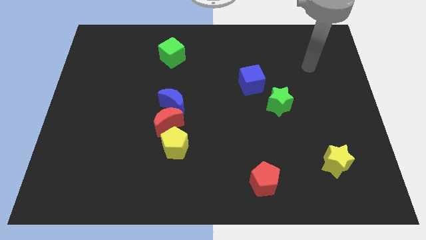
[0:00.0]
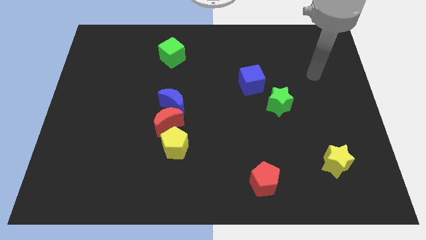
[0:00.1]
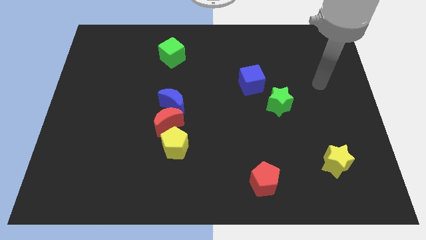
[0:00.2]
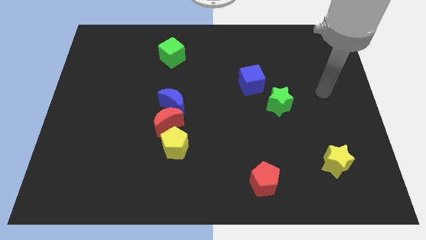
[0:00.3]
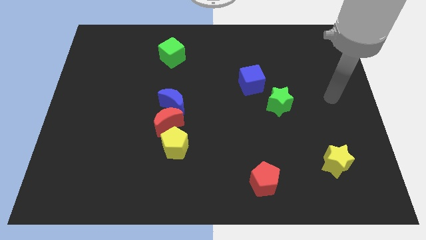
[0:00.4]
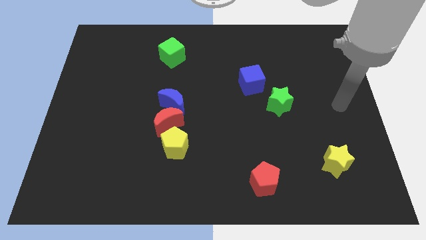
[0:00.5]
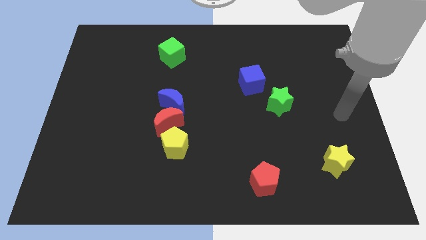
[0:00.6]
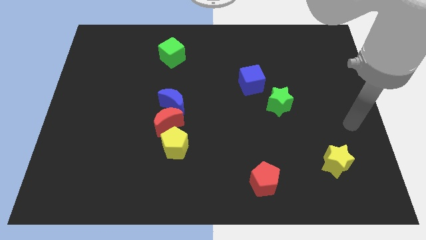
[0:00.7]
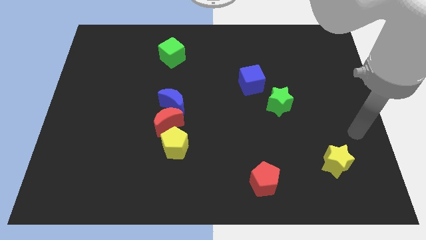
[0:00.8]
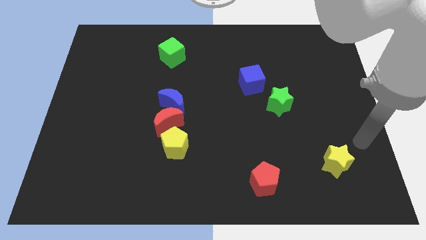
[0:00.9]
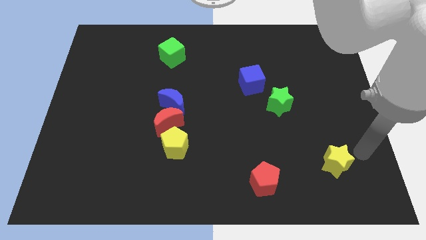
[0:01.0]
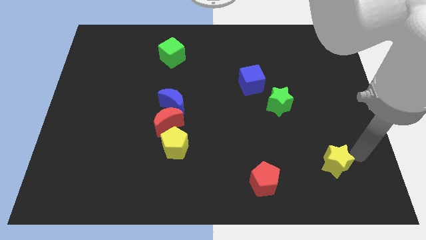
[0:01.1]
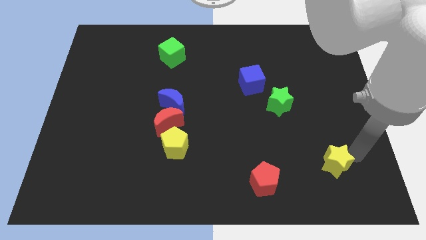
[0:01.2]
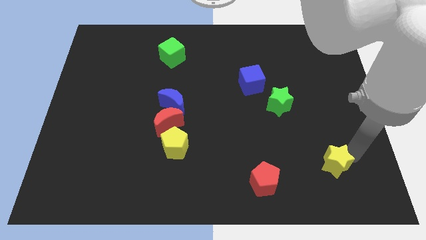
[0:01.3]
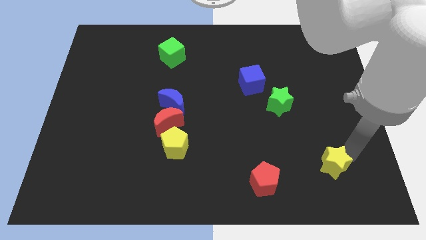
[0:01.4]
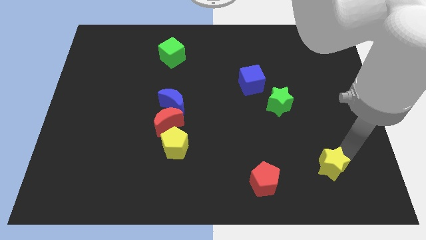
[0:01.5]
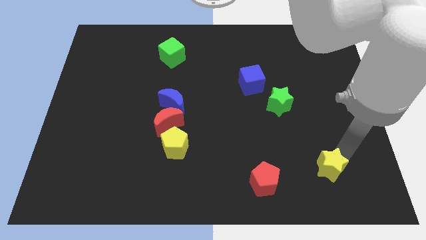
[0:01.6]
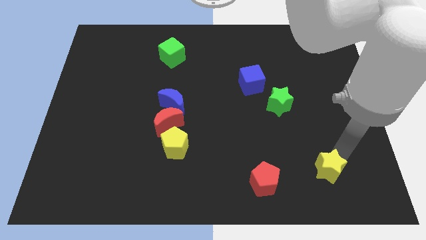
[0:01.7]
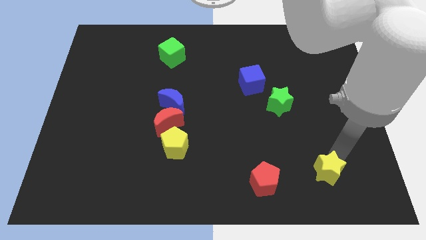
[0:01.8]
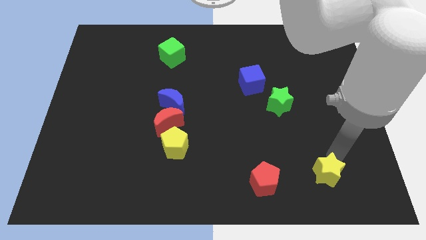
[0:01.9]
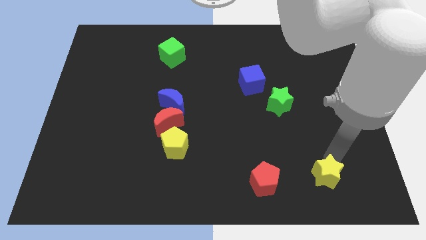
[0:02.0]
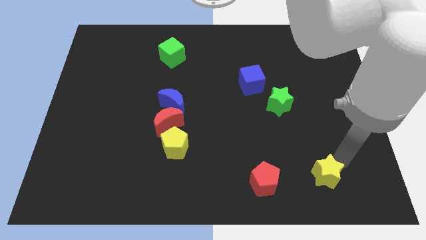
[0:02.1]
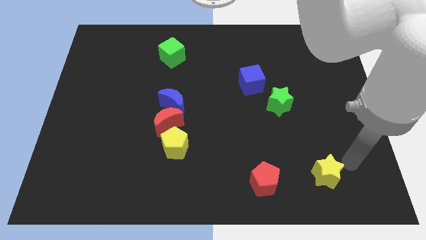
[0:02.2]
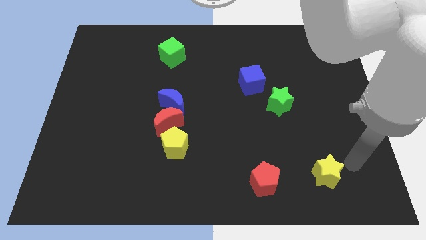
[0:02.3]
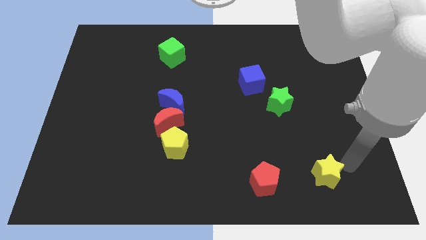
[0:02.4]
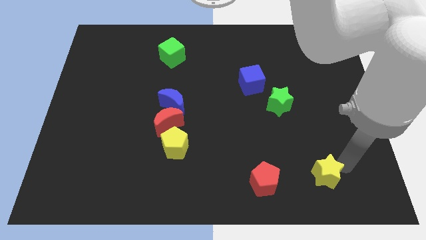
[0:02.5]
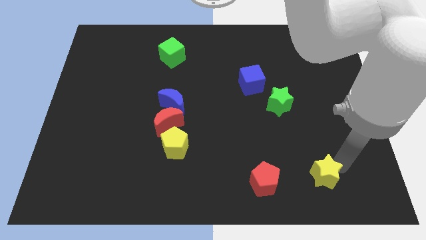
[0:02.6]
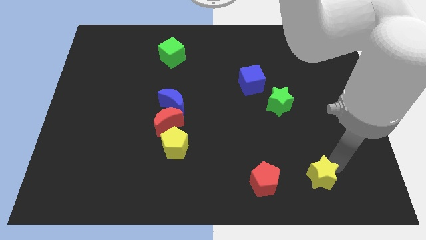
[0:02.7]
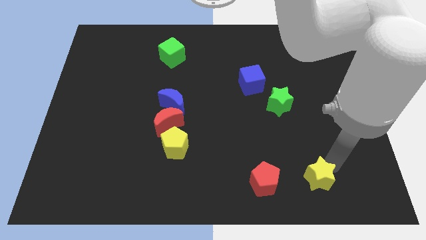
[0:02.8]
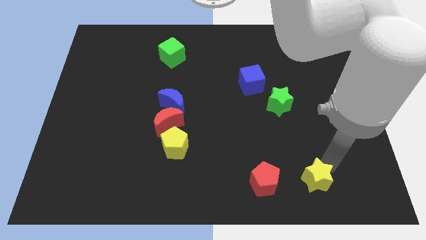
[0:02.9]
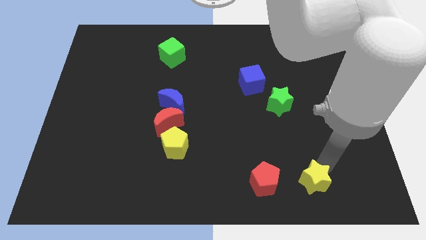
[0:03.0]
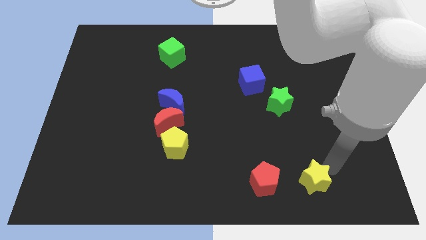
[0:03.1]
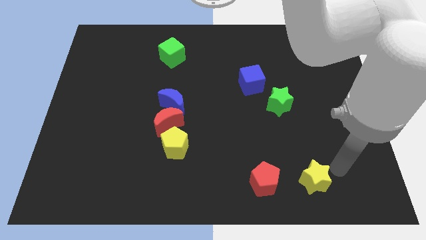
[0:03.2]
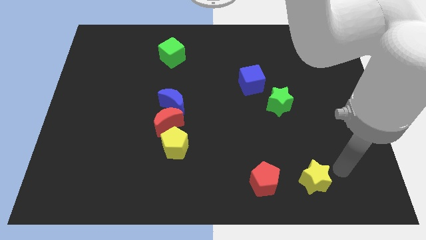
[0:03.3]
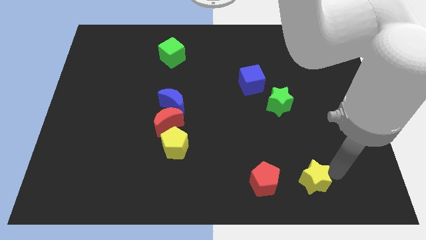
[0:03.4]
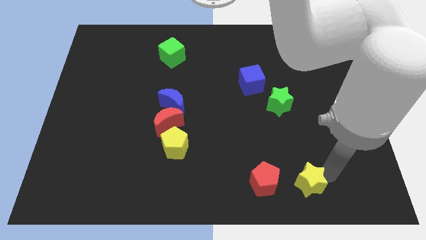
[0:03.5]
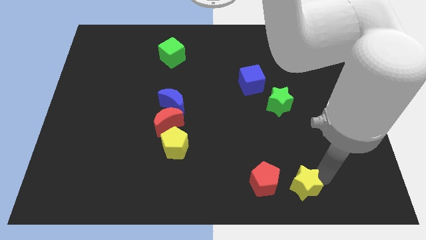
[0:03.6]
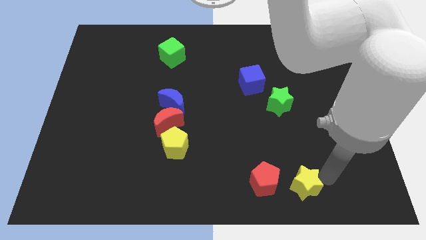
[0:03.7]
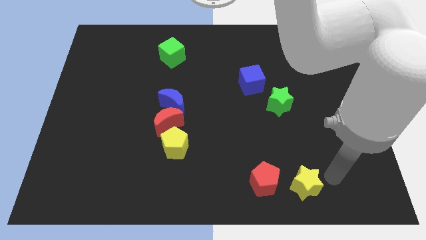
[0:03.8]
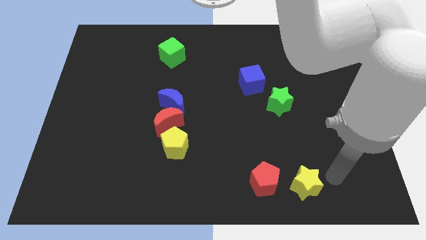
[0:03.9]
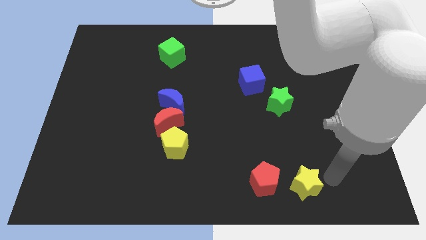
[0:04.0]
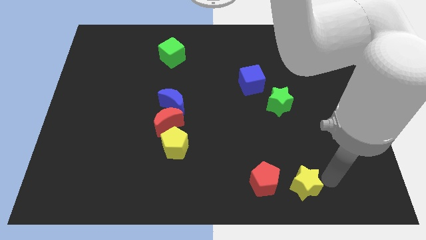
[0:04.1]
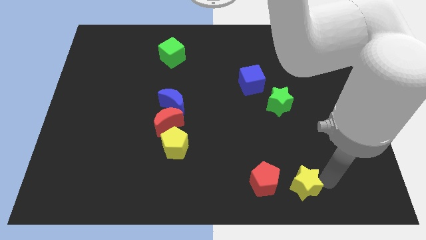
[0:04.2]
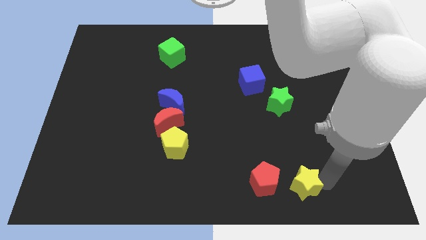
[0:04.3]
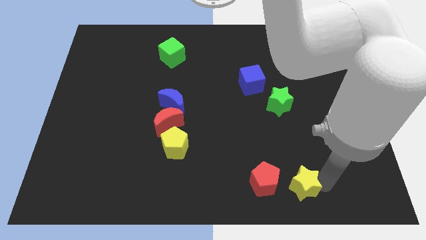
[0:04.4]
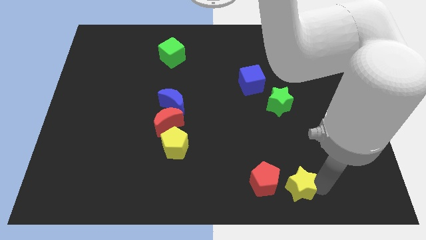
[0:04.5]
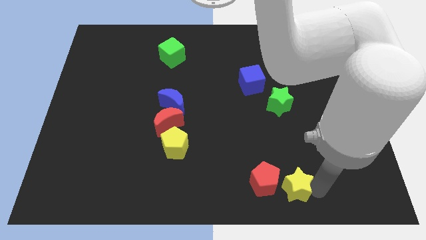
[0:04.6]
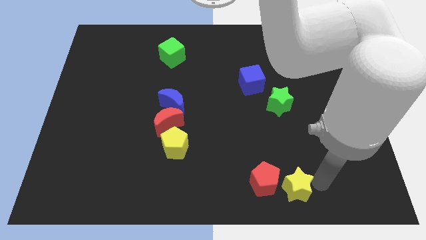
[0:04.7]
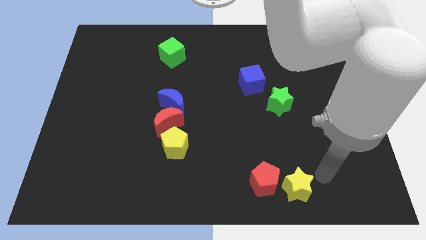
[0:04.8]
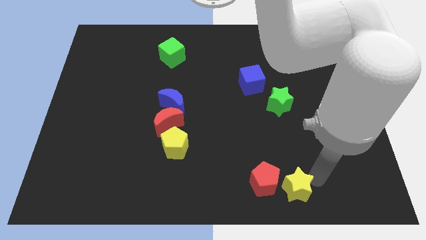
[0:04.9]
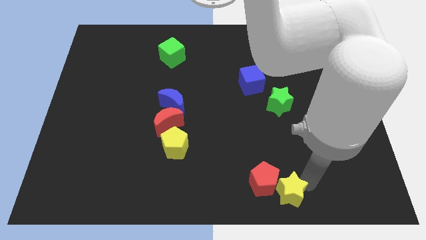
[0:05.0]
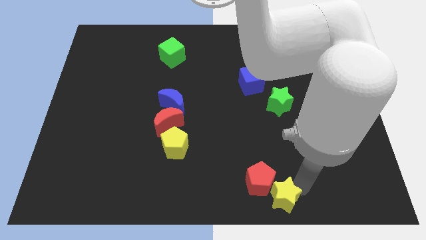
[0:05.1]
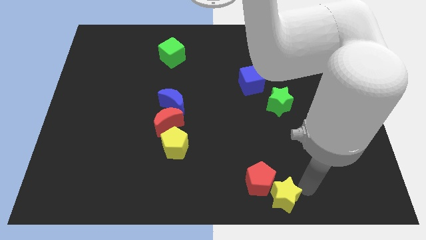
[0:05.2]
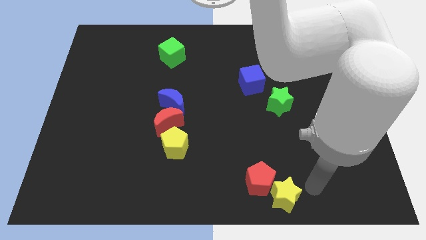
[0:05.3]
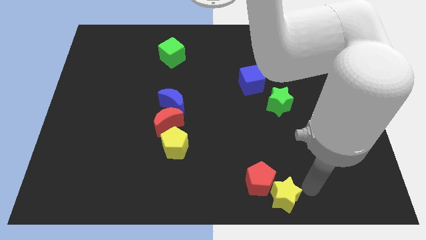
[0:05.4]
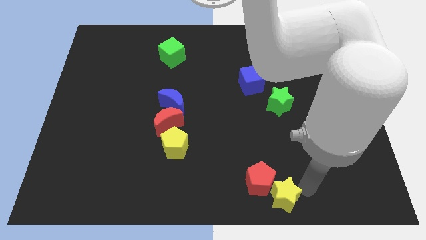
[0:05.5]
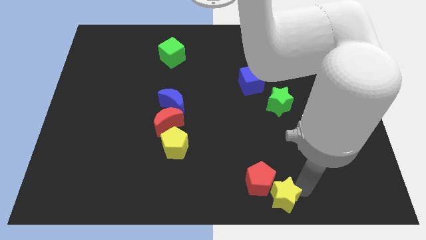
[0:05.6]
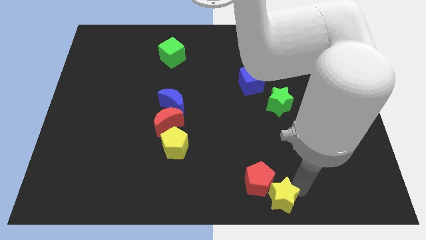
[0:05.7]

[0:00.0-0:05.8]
move the yellow star to the bottom

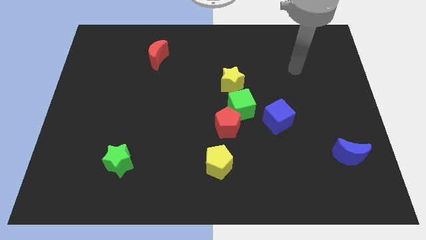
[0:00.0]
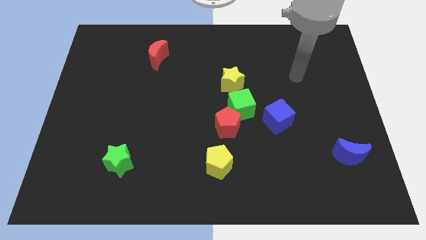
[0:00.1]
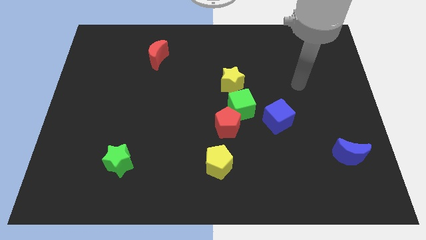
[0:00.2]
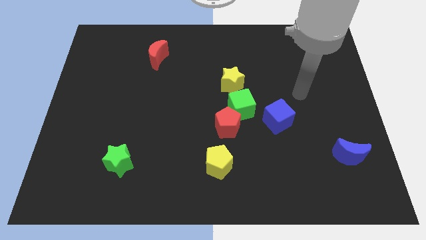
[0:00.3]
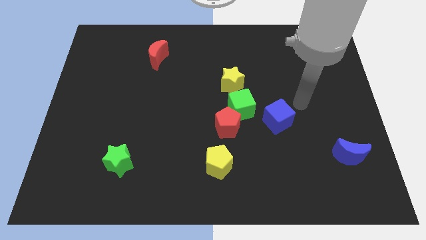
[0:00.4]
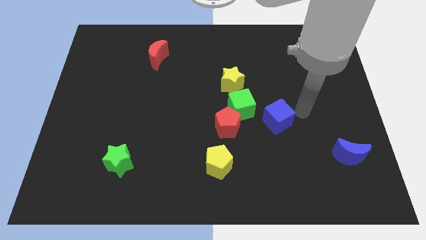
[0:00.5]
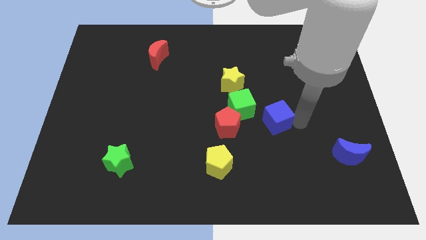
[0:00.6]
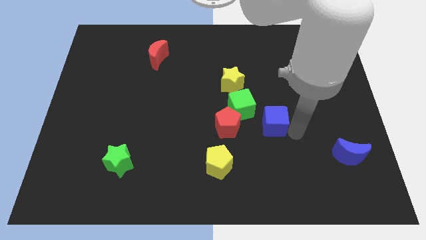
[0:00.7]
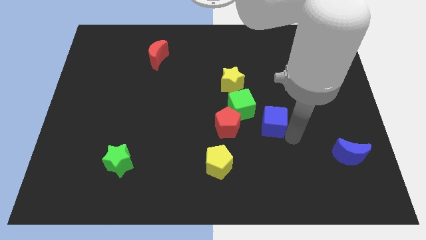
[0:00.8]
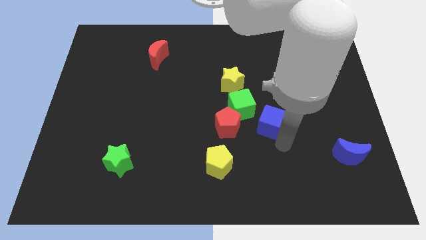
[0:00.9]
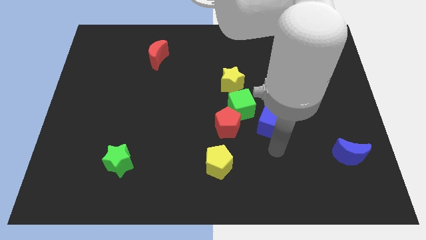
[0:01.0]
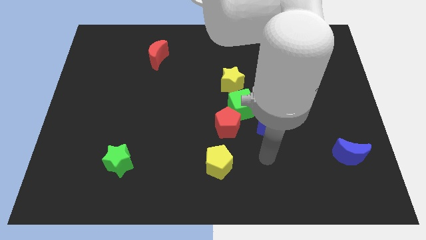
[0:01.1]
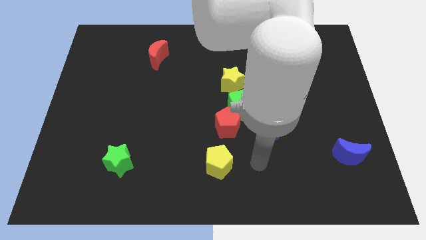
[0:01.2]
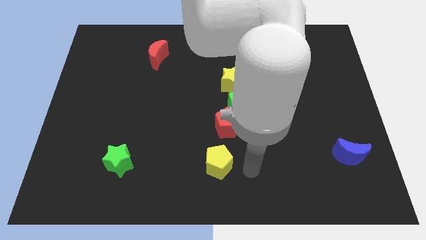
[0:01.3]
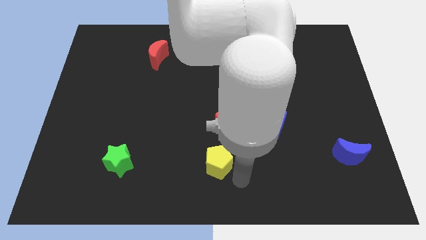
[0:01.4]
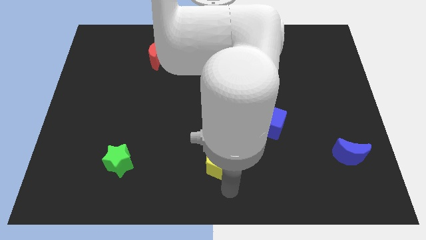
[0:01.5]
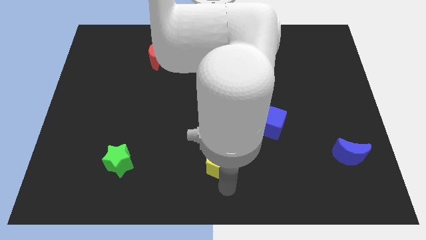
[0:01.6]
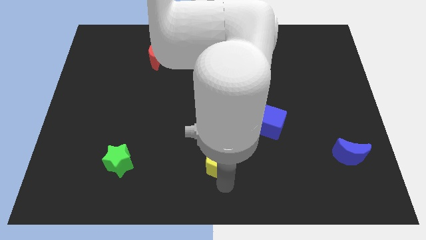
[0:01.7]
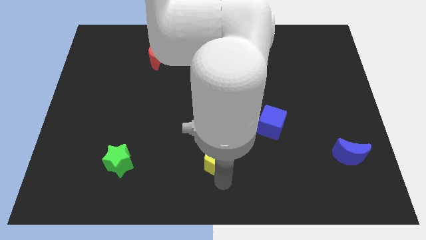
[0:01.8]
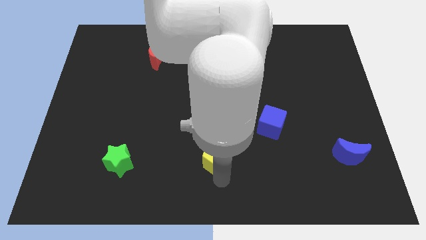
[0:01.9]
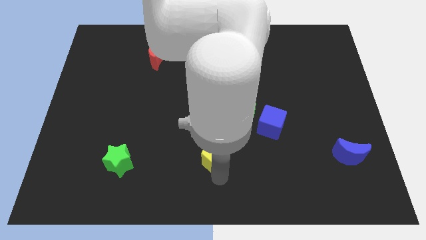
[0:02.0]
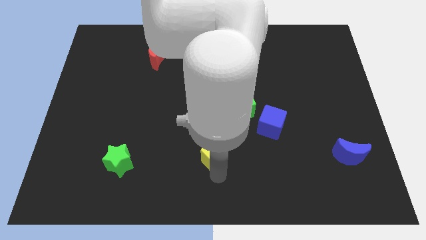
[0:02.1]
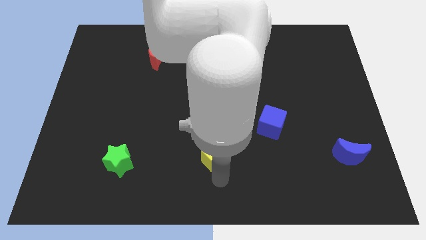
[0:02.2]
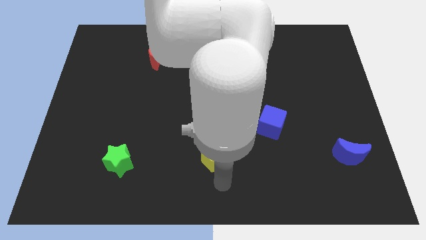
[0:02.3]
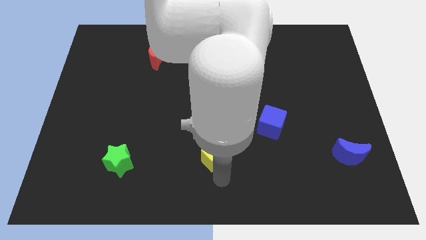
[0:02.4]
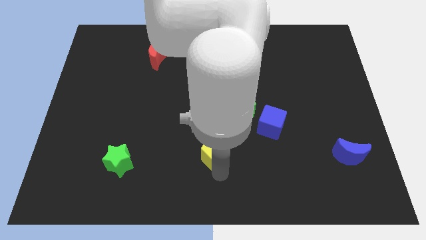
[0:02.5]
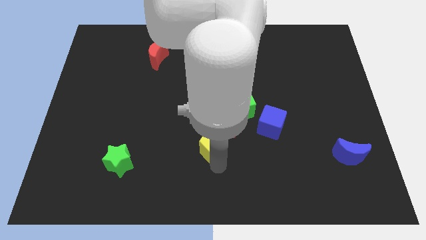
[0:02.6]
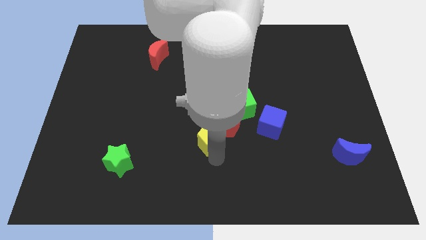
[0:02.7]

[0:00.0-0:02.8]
slide the yellow pentagon to the middle
